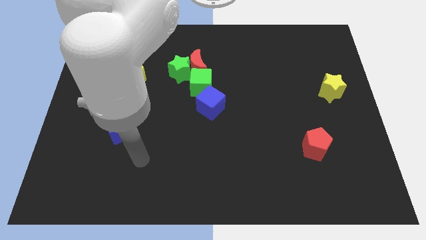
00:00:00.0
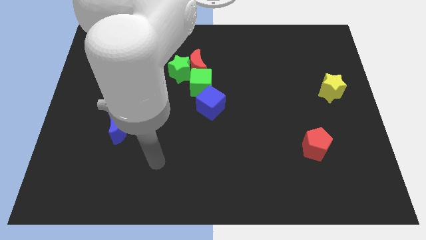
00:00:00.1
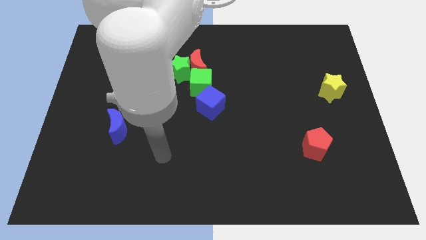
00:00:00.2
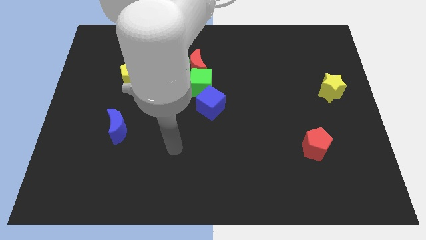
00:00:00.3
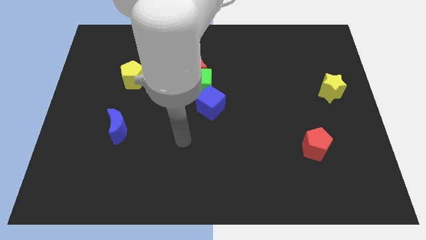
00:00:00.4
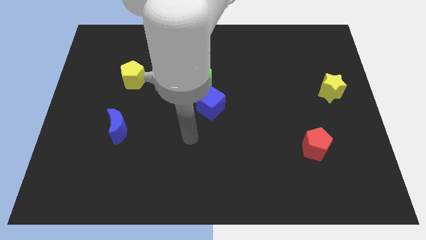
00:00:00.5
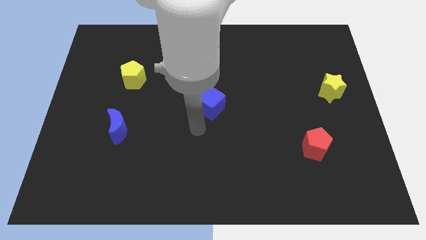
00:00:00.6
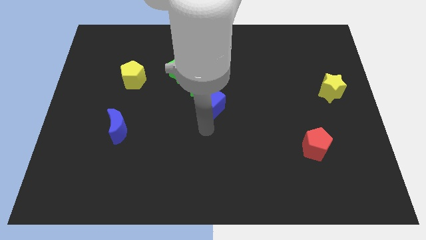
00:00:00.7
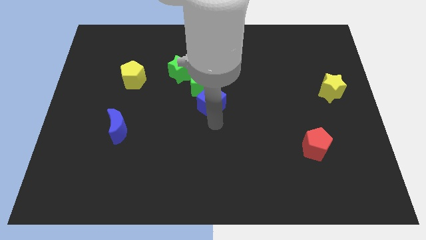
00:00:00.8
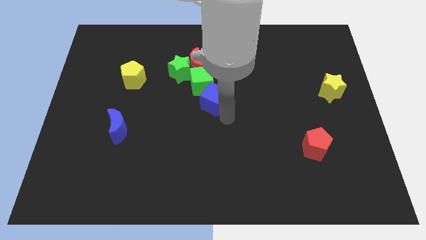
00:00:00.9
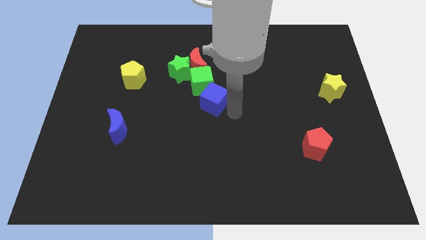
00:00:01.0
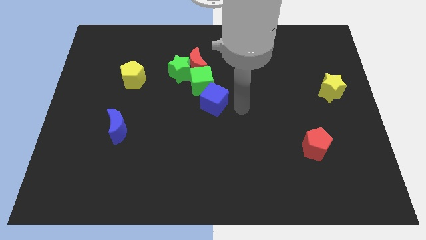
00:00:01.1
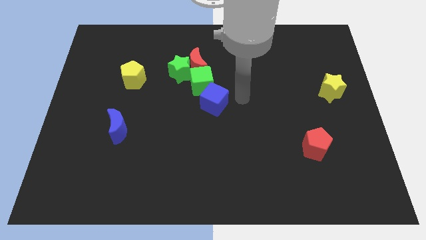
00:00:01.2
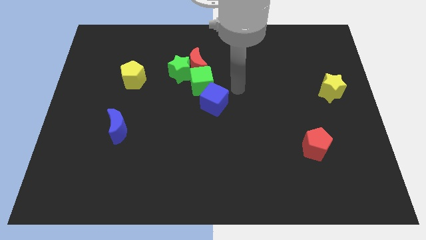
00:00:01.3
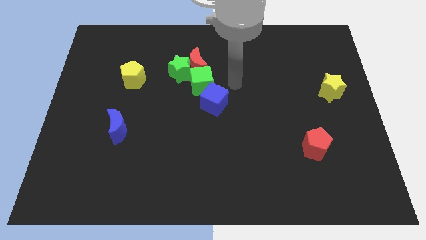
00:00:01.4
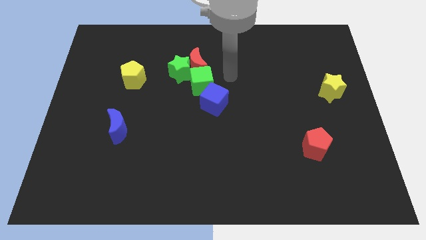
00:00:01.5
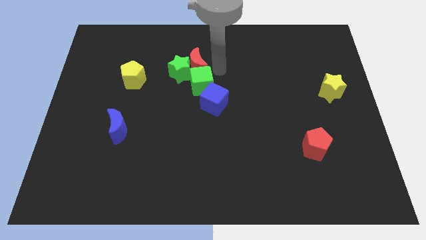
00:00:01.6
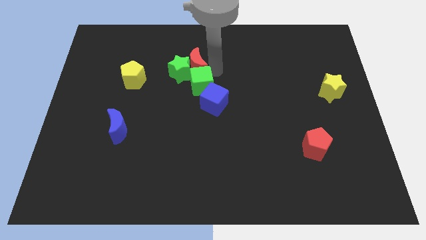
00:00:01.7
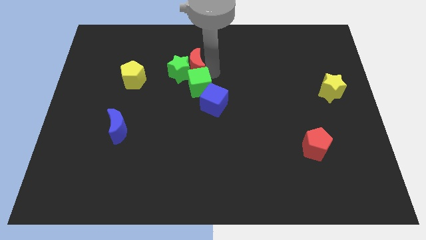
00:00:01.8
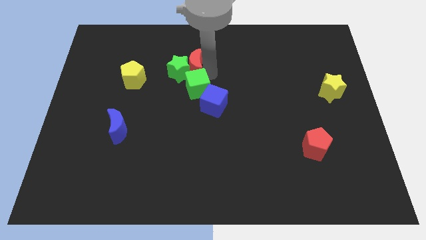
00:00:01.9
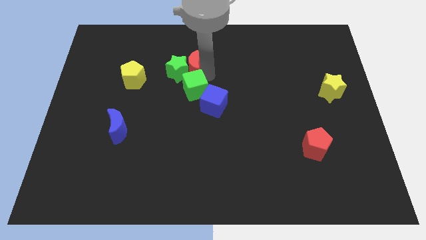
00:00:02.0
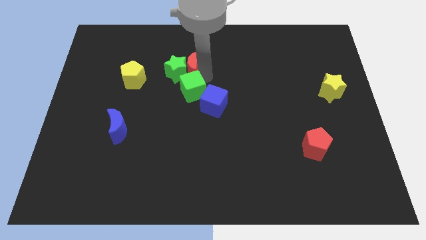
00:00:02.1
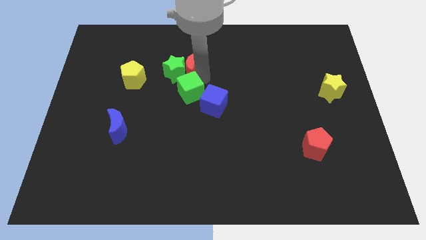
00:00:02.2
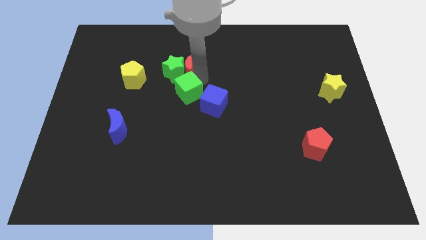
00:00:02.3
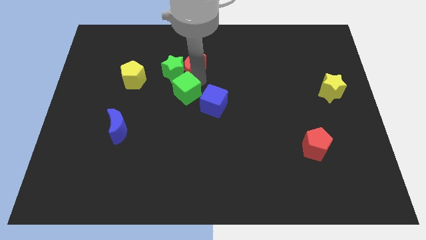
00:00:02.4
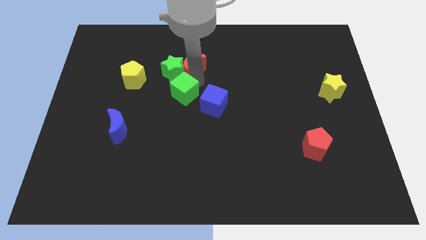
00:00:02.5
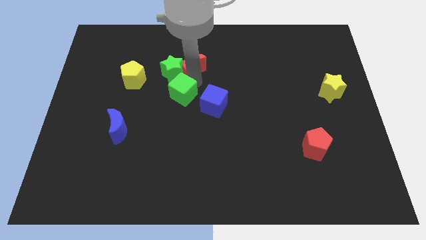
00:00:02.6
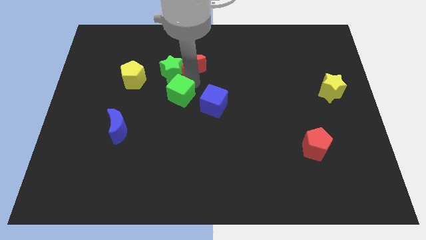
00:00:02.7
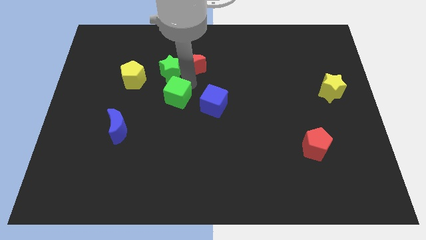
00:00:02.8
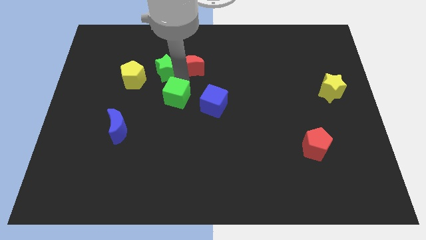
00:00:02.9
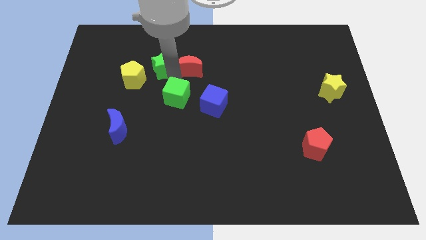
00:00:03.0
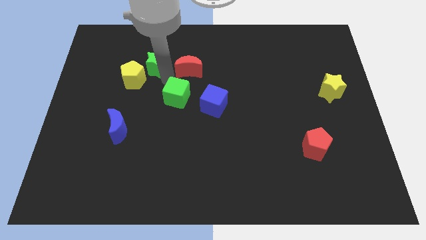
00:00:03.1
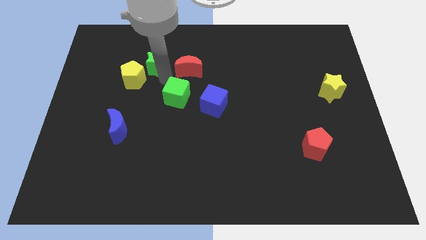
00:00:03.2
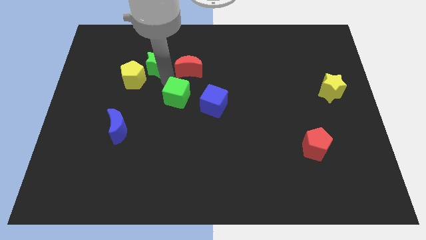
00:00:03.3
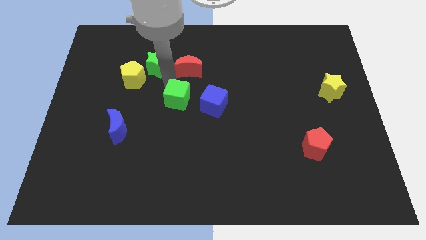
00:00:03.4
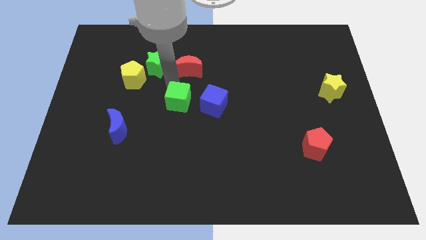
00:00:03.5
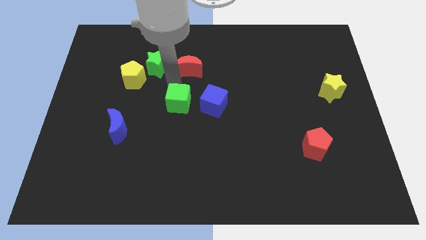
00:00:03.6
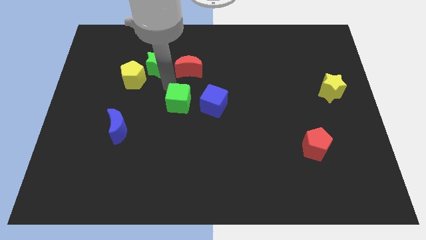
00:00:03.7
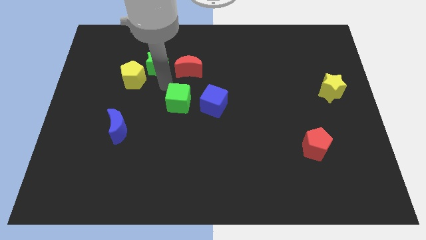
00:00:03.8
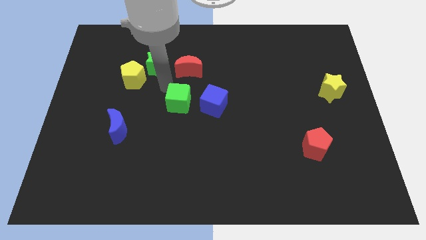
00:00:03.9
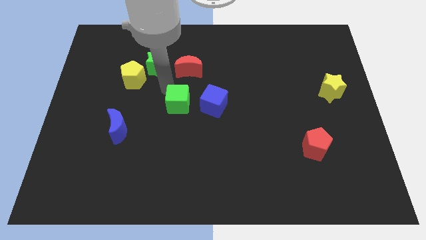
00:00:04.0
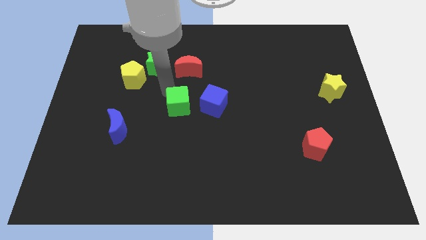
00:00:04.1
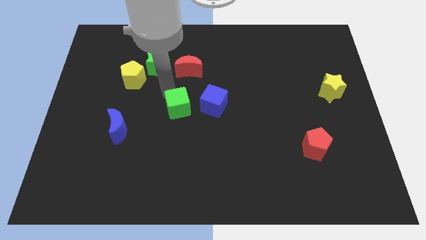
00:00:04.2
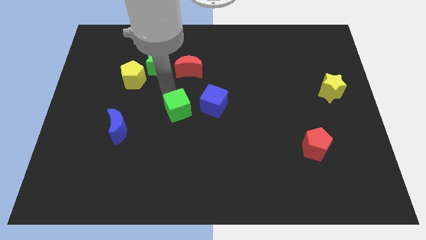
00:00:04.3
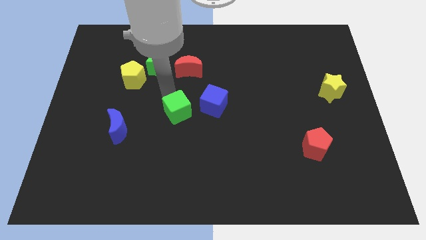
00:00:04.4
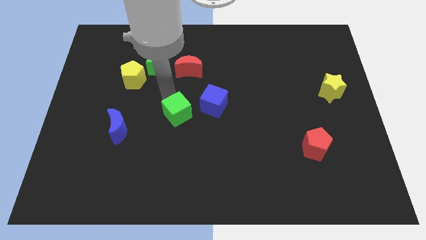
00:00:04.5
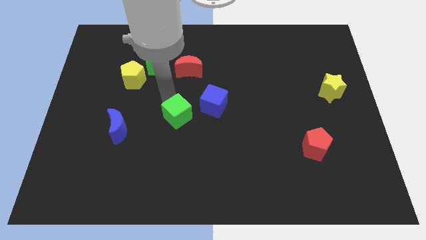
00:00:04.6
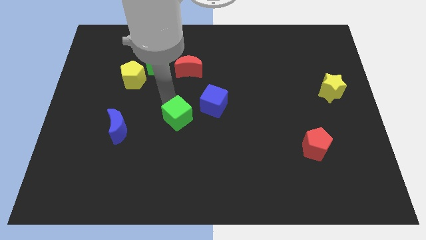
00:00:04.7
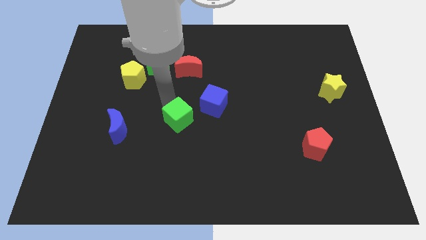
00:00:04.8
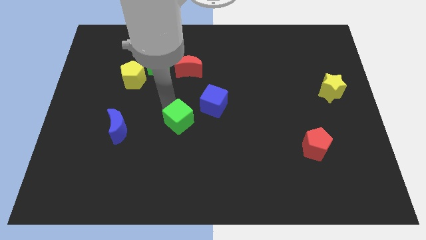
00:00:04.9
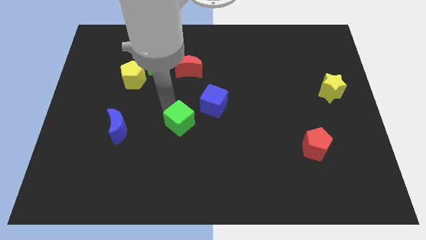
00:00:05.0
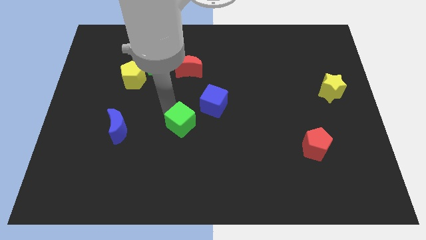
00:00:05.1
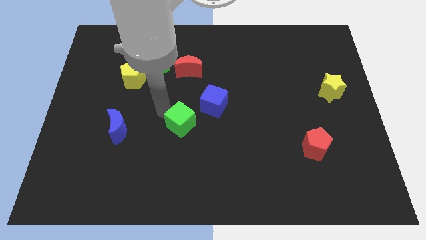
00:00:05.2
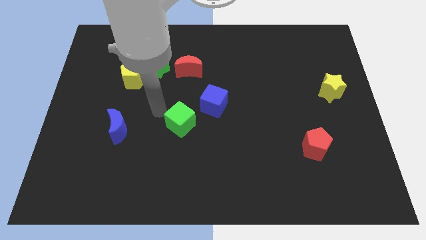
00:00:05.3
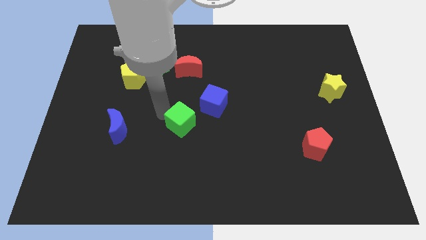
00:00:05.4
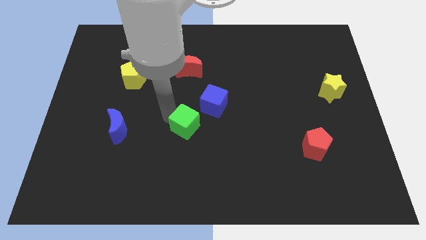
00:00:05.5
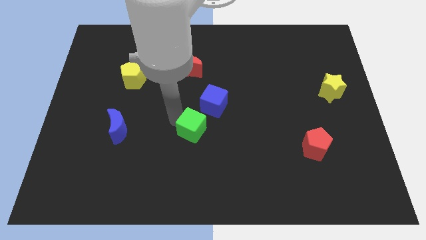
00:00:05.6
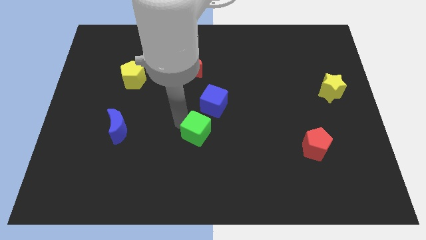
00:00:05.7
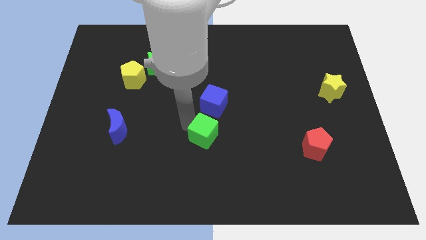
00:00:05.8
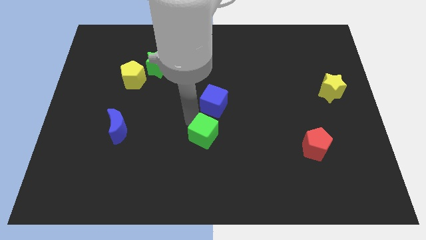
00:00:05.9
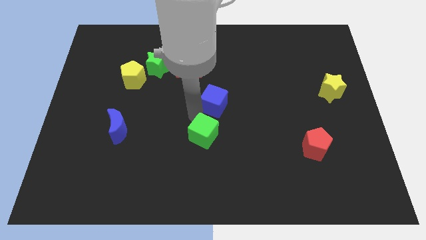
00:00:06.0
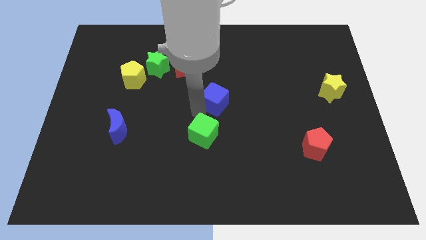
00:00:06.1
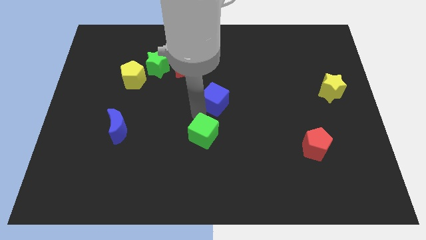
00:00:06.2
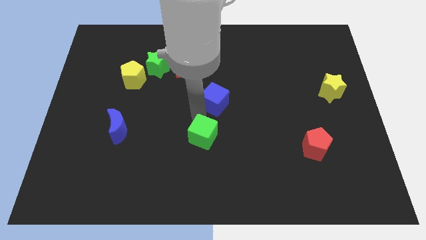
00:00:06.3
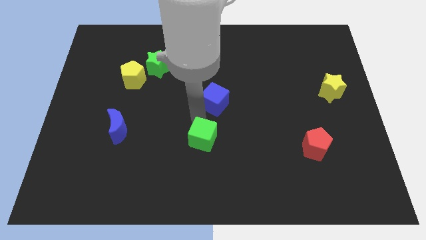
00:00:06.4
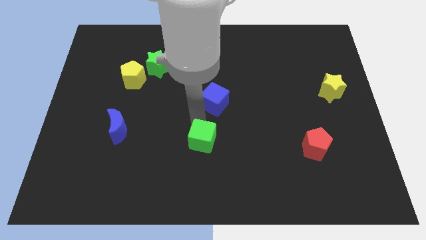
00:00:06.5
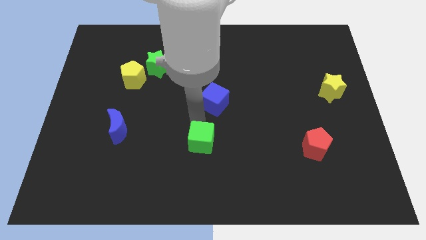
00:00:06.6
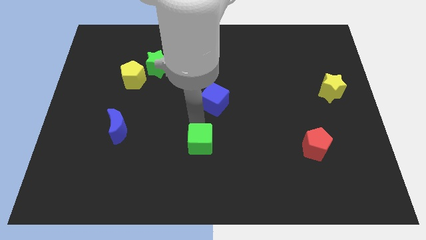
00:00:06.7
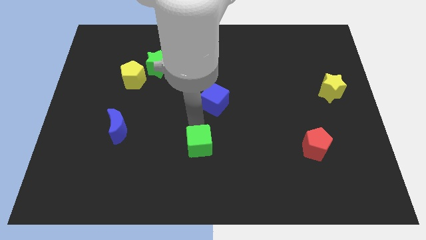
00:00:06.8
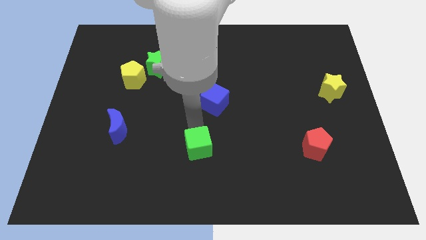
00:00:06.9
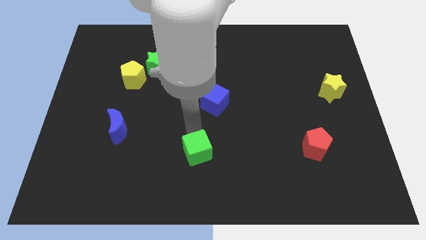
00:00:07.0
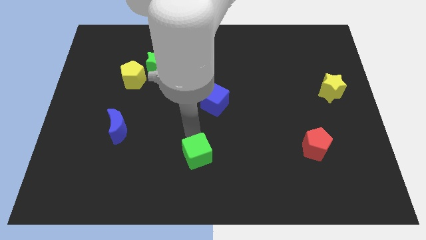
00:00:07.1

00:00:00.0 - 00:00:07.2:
slide the green cube to the bottom side
